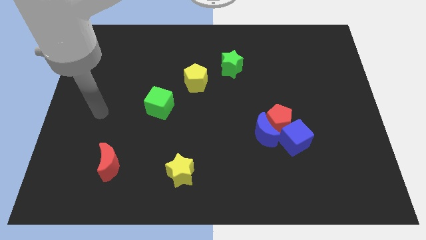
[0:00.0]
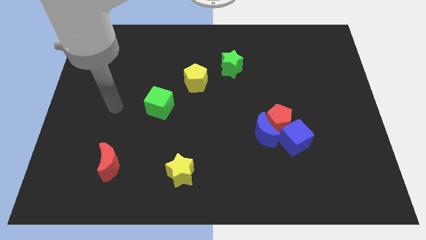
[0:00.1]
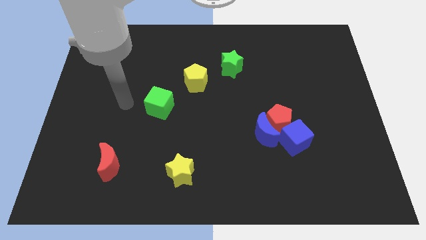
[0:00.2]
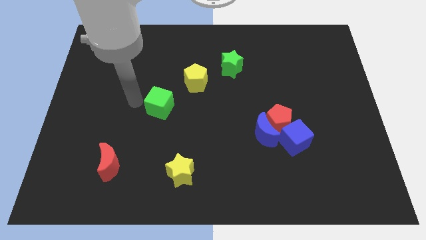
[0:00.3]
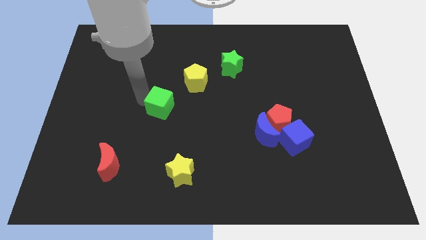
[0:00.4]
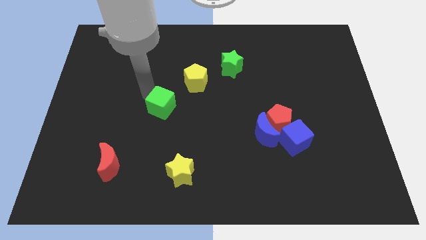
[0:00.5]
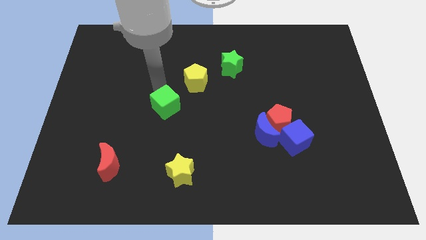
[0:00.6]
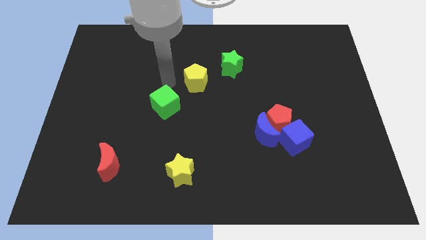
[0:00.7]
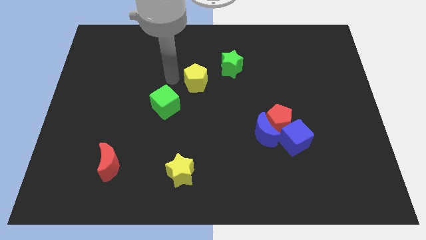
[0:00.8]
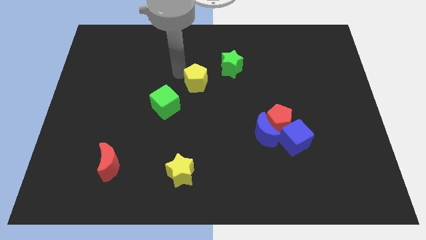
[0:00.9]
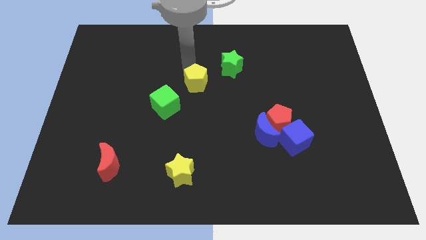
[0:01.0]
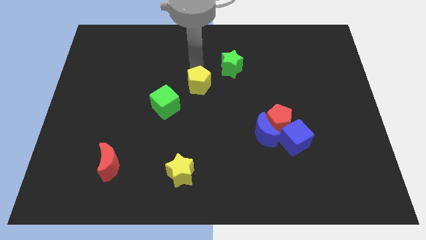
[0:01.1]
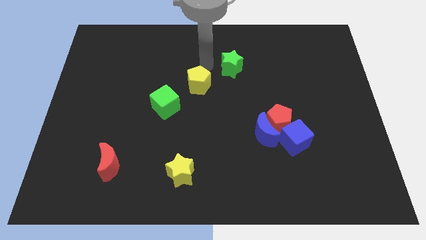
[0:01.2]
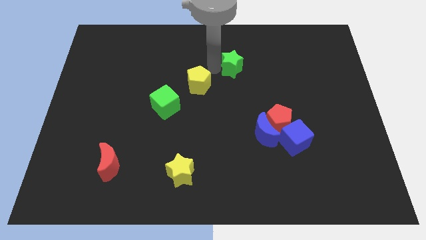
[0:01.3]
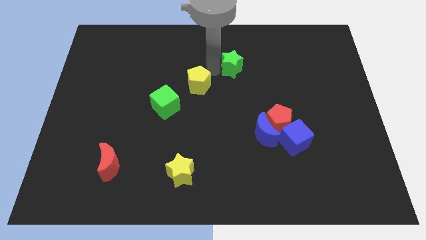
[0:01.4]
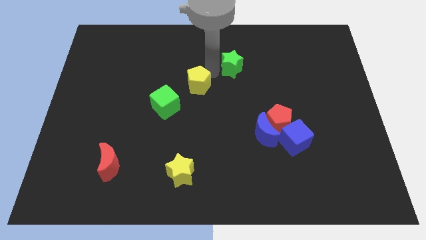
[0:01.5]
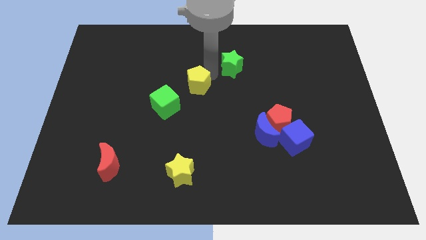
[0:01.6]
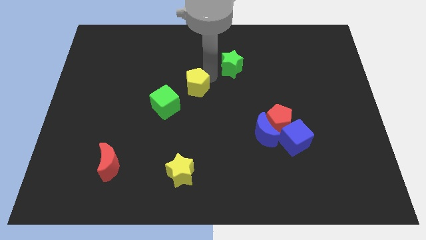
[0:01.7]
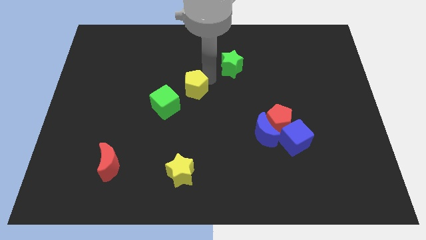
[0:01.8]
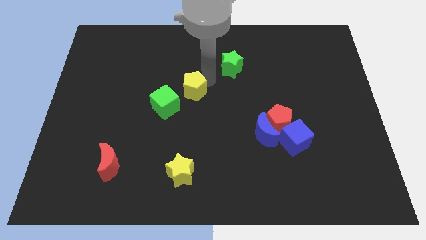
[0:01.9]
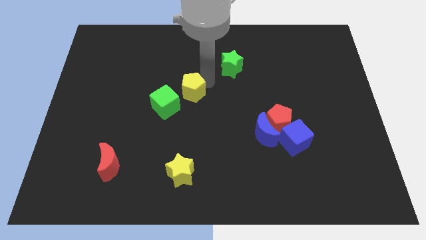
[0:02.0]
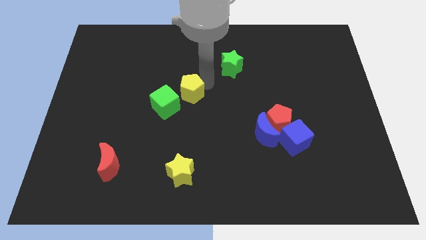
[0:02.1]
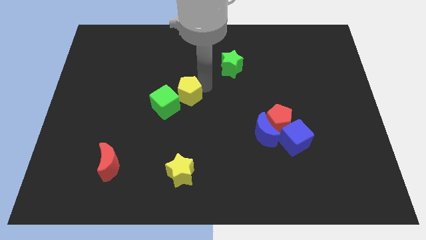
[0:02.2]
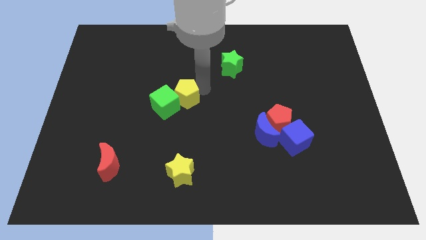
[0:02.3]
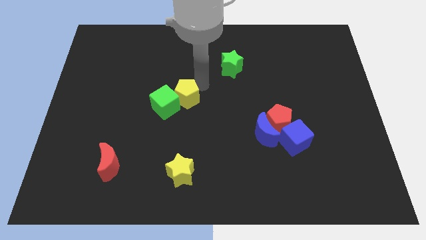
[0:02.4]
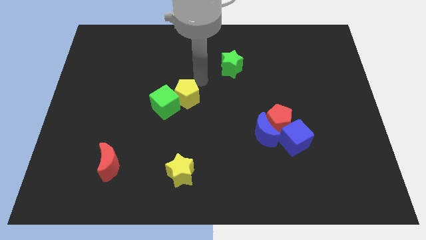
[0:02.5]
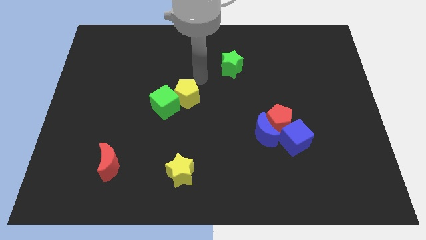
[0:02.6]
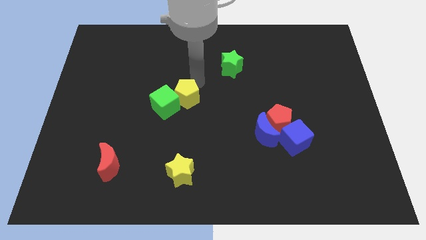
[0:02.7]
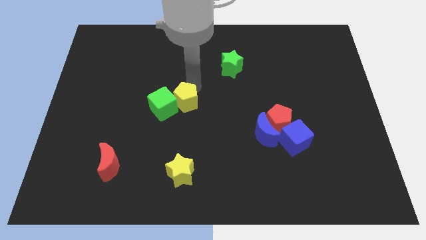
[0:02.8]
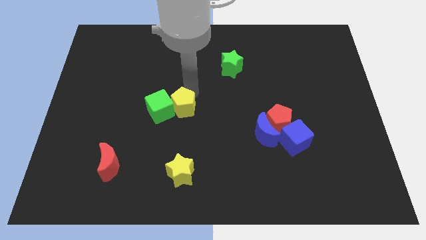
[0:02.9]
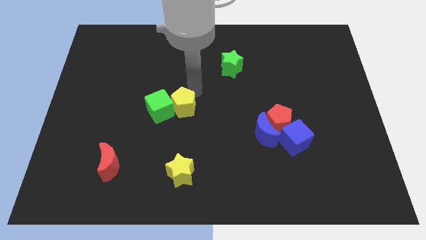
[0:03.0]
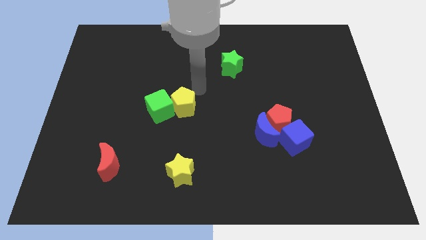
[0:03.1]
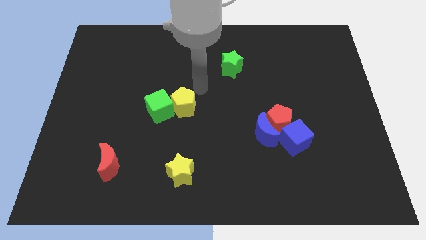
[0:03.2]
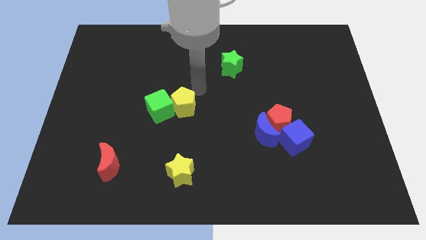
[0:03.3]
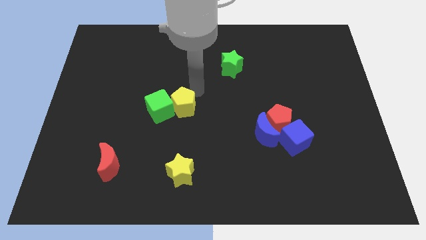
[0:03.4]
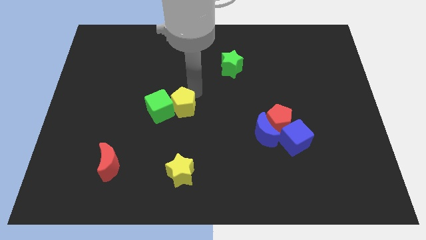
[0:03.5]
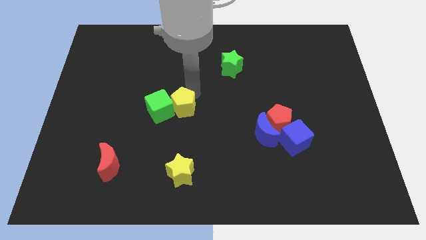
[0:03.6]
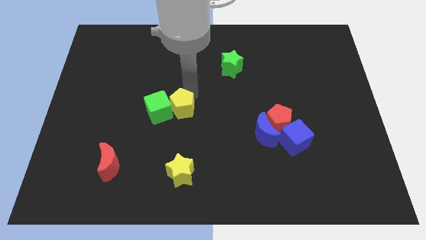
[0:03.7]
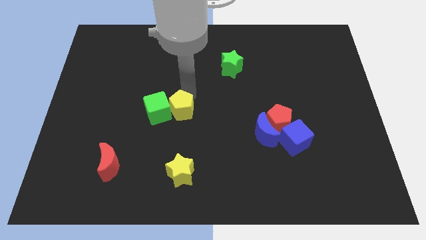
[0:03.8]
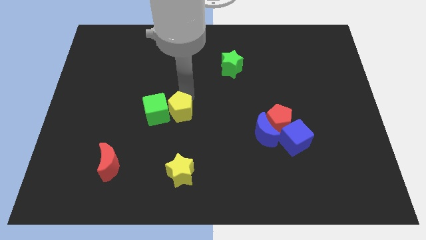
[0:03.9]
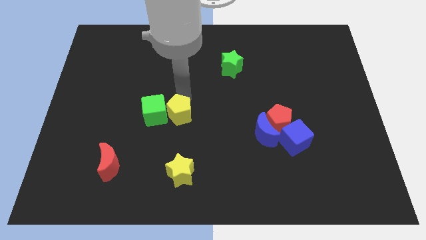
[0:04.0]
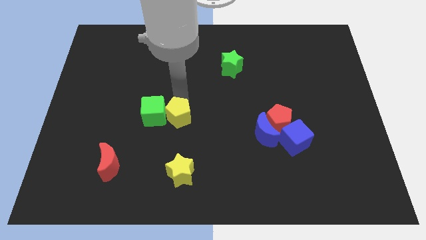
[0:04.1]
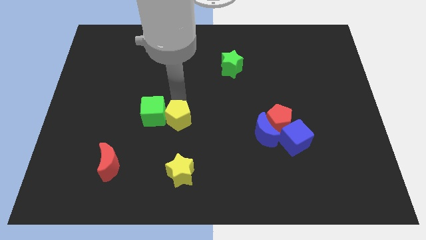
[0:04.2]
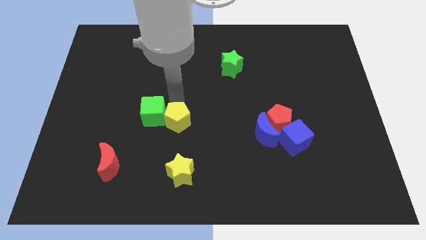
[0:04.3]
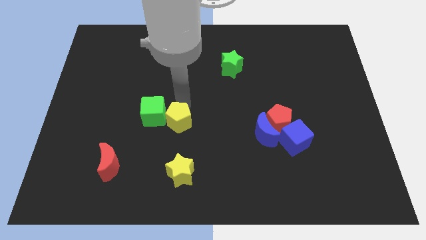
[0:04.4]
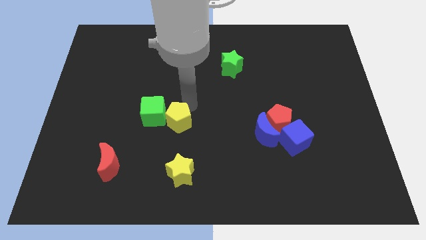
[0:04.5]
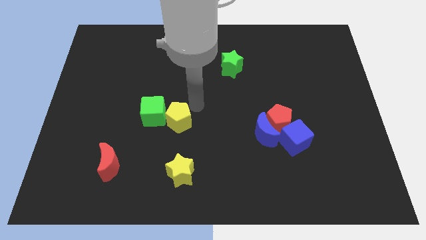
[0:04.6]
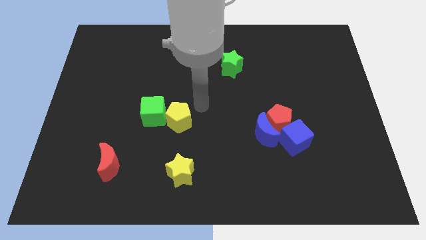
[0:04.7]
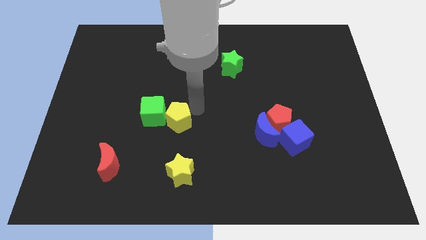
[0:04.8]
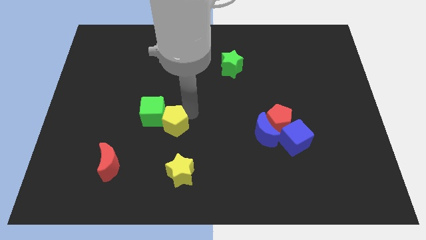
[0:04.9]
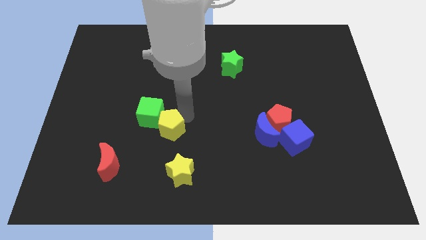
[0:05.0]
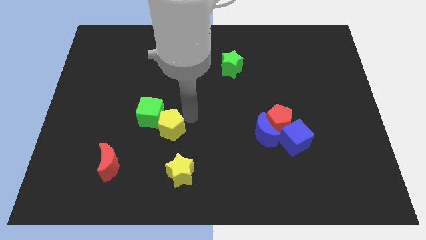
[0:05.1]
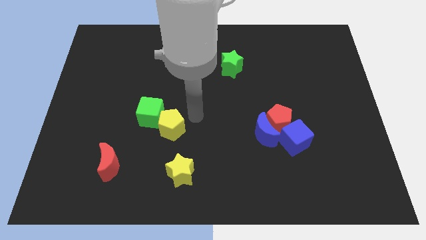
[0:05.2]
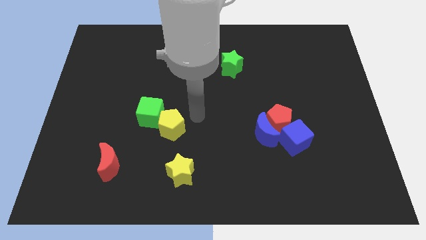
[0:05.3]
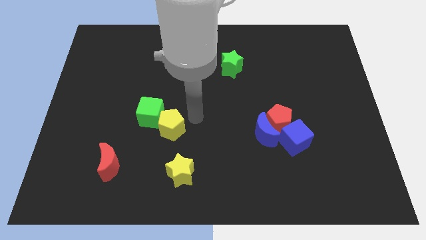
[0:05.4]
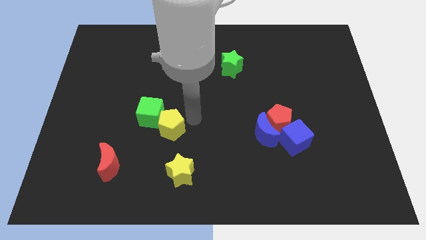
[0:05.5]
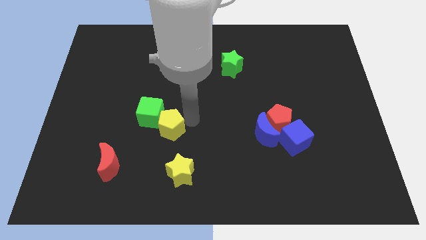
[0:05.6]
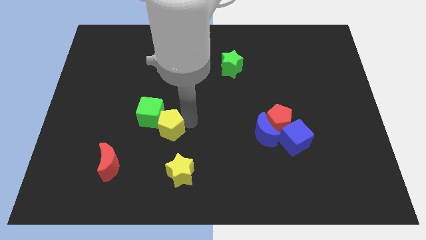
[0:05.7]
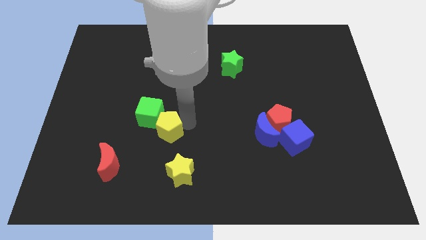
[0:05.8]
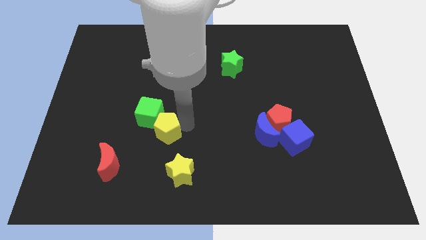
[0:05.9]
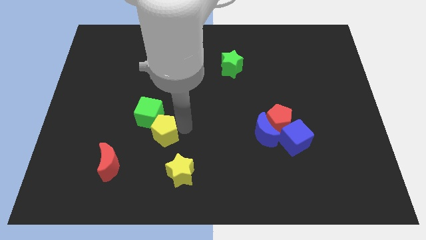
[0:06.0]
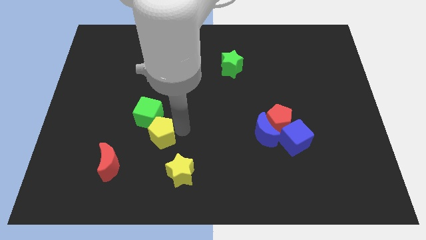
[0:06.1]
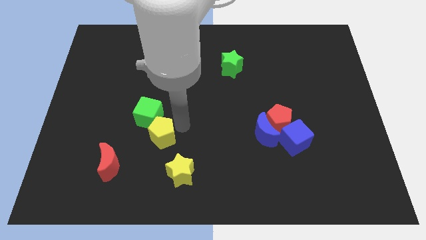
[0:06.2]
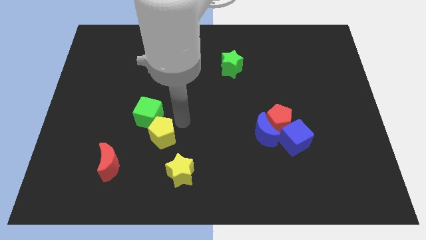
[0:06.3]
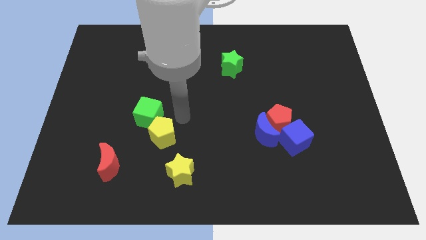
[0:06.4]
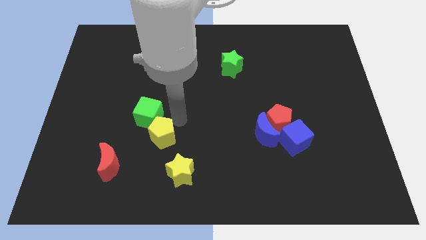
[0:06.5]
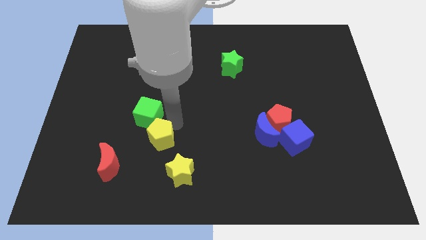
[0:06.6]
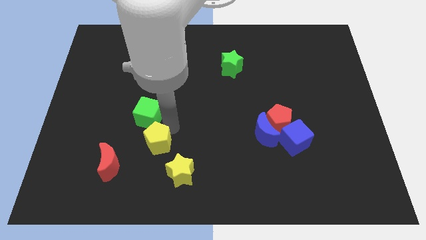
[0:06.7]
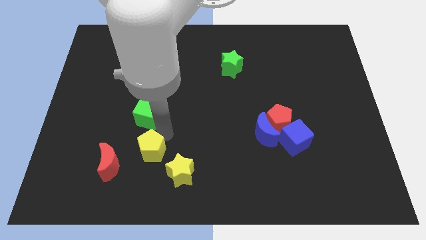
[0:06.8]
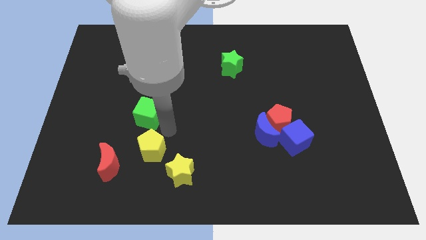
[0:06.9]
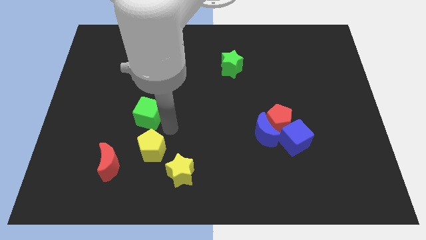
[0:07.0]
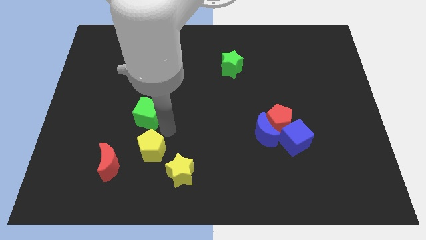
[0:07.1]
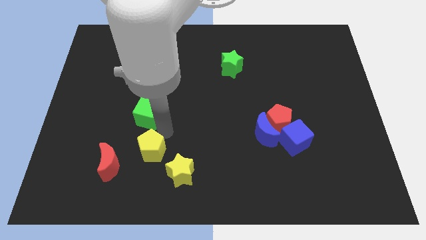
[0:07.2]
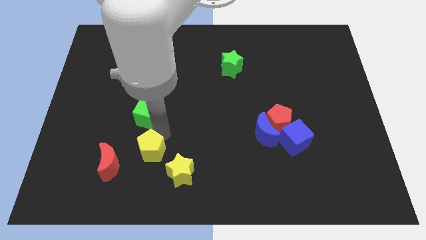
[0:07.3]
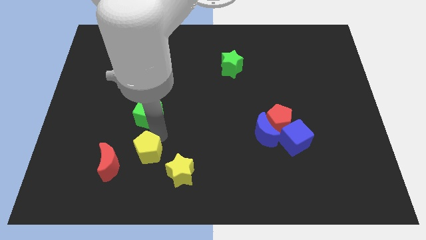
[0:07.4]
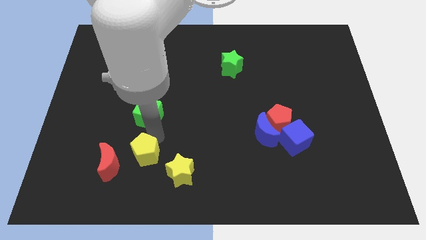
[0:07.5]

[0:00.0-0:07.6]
slide the yellow pentagon to the left of the yellow star
